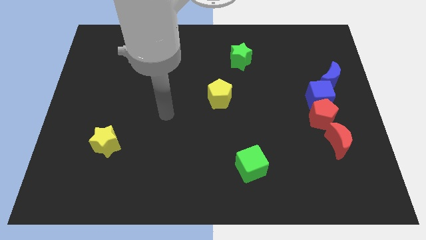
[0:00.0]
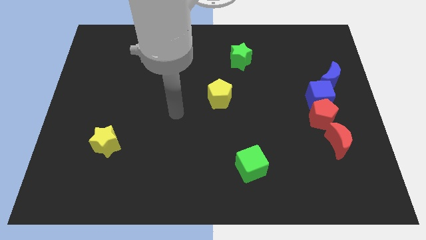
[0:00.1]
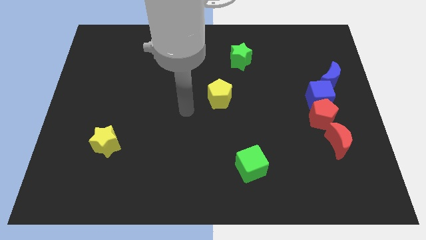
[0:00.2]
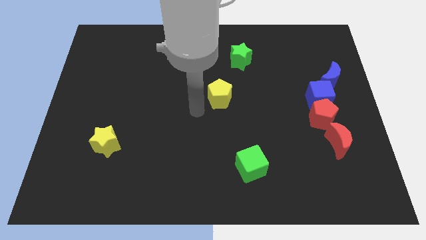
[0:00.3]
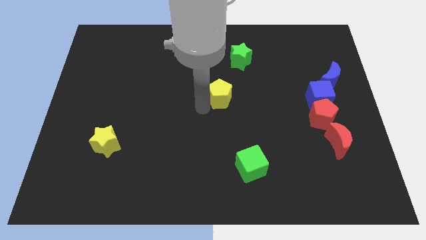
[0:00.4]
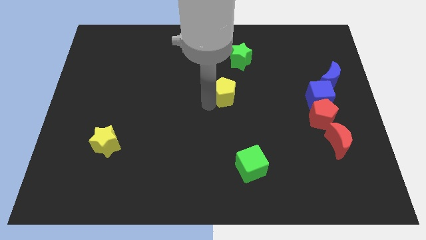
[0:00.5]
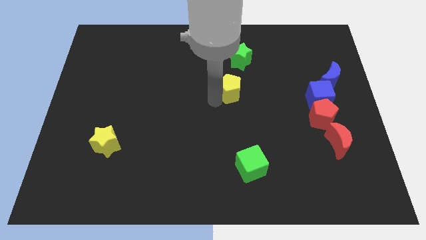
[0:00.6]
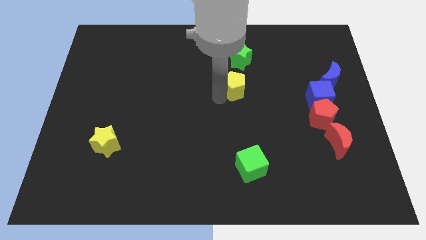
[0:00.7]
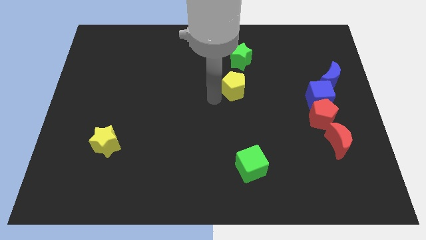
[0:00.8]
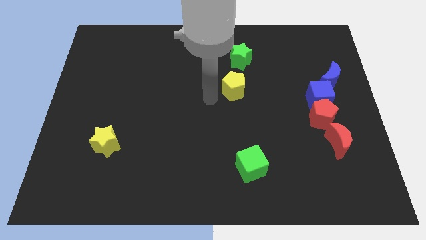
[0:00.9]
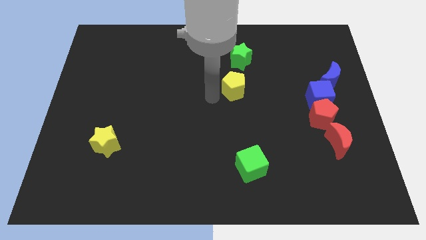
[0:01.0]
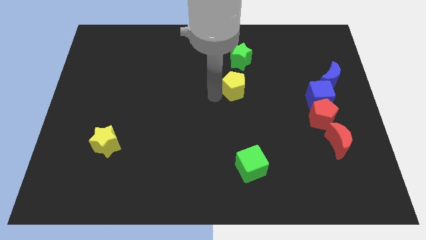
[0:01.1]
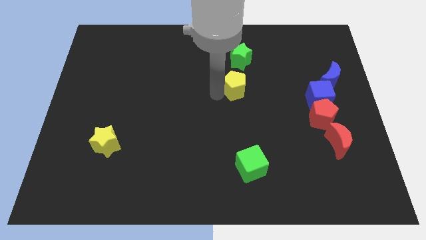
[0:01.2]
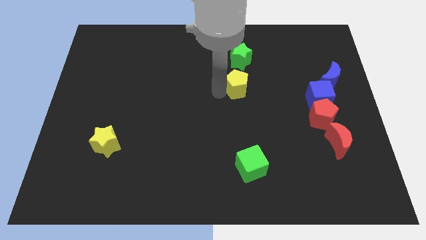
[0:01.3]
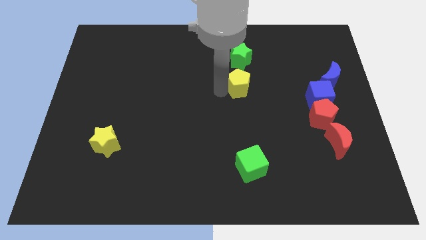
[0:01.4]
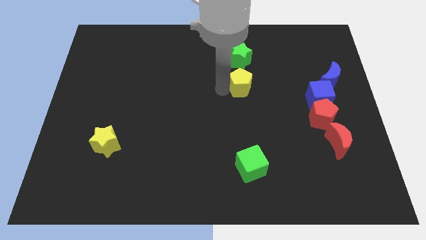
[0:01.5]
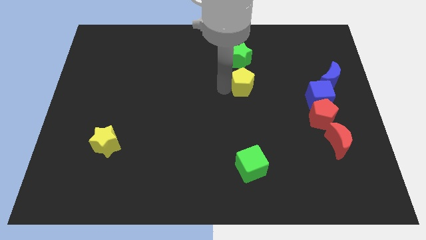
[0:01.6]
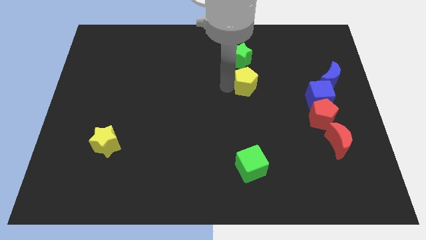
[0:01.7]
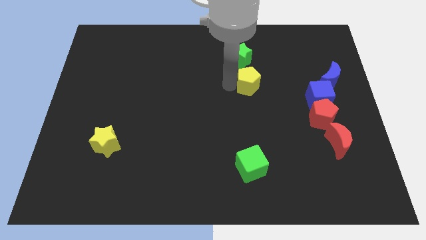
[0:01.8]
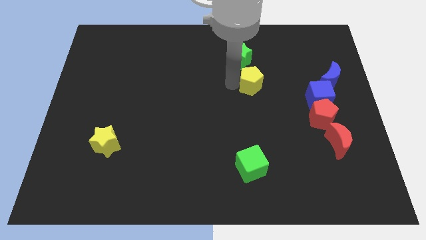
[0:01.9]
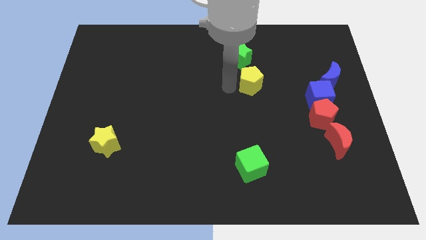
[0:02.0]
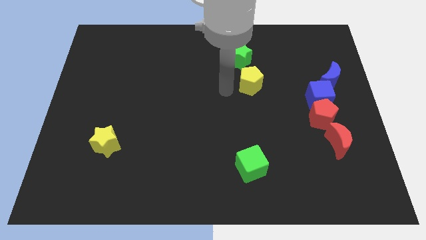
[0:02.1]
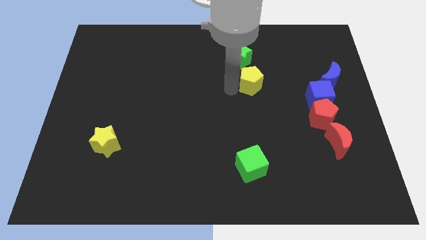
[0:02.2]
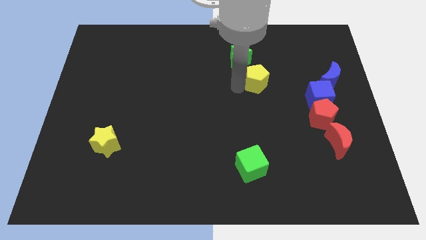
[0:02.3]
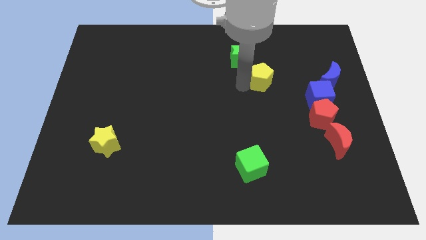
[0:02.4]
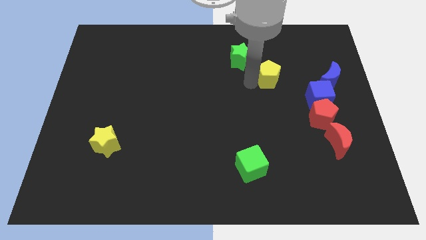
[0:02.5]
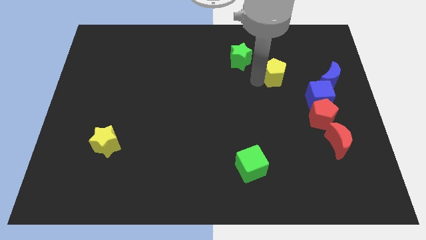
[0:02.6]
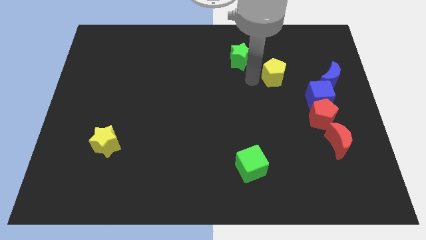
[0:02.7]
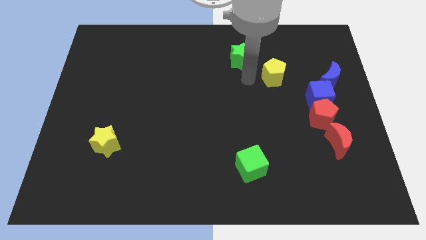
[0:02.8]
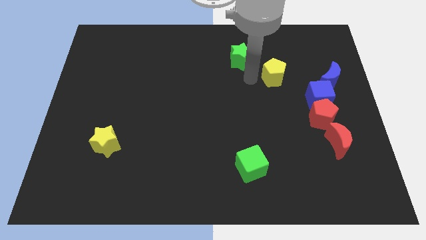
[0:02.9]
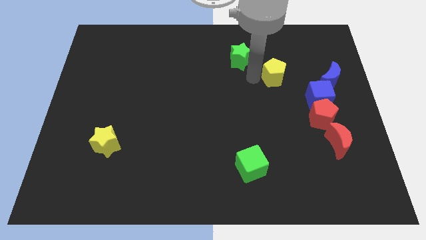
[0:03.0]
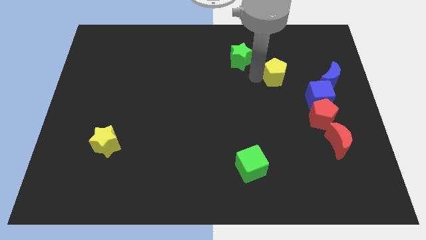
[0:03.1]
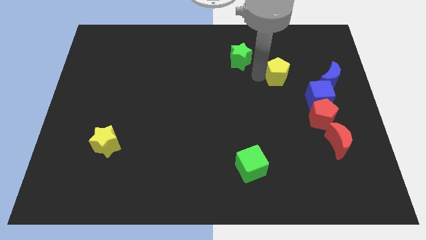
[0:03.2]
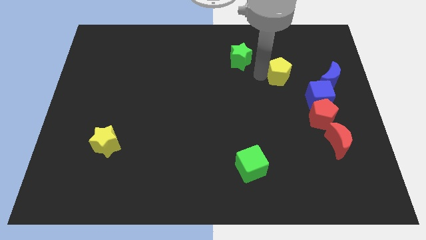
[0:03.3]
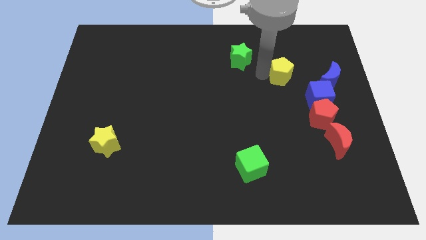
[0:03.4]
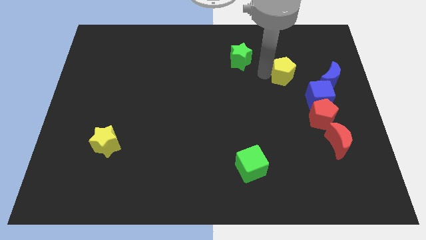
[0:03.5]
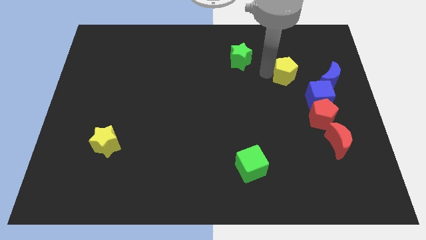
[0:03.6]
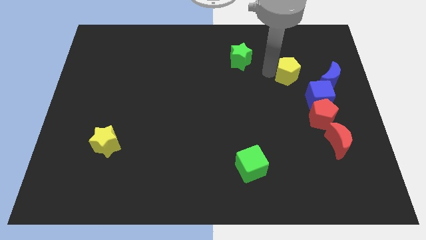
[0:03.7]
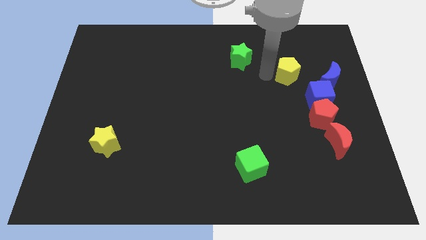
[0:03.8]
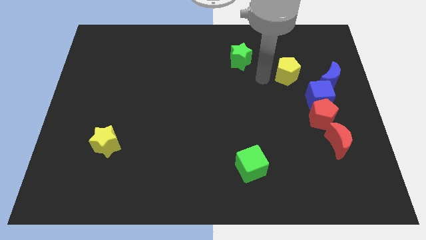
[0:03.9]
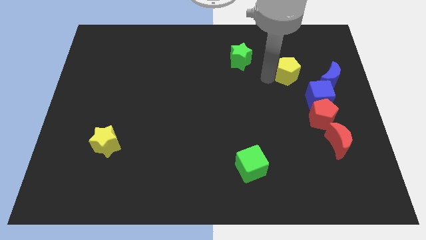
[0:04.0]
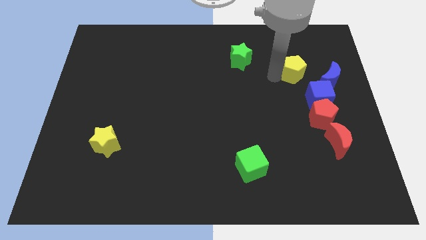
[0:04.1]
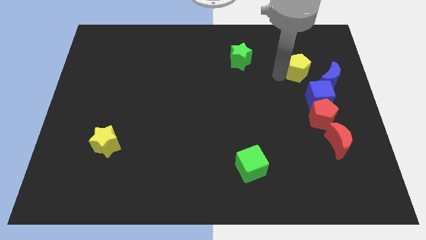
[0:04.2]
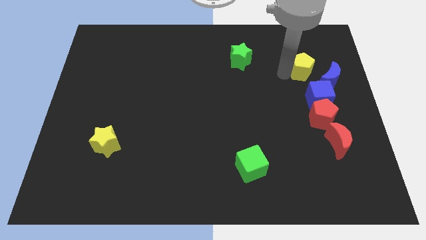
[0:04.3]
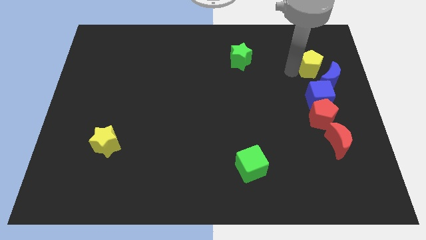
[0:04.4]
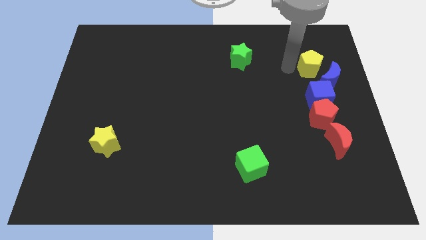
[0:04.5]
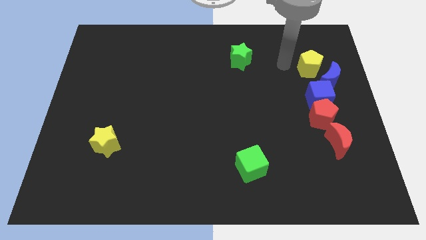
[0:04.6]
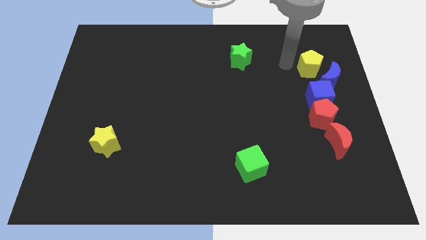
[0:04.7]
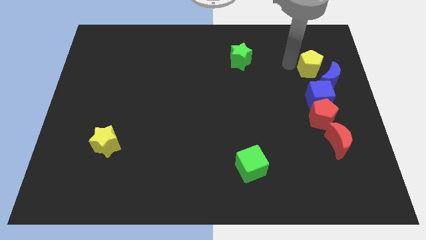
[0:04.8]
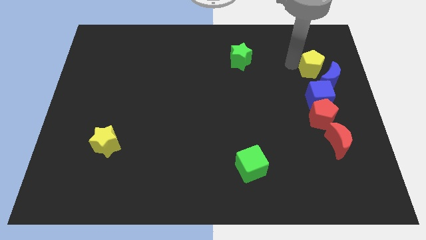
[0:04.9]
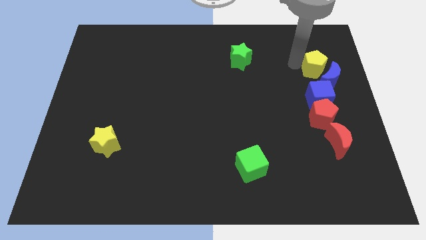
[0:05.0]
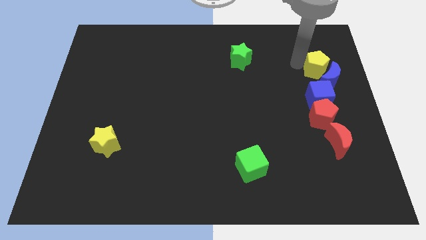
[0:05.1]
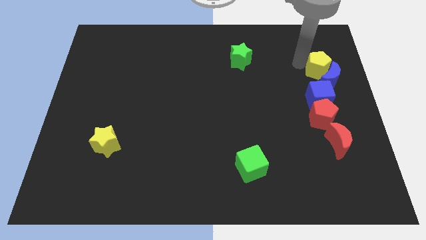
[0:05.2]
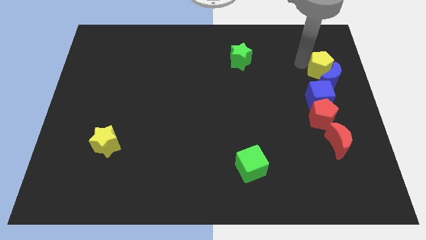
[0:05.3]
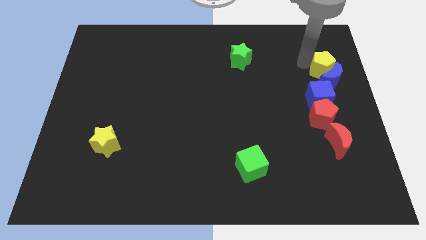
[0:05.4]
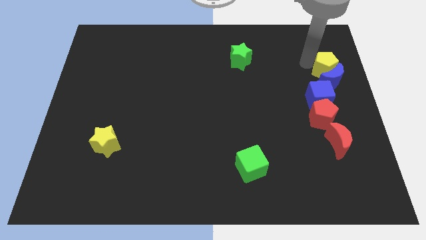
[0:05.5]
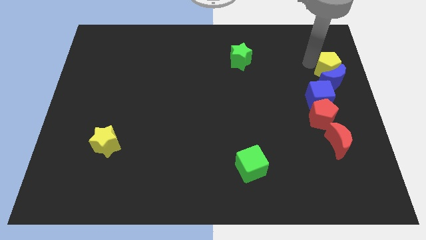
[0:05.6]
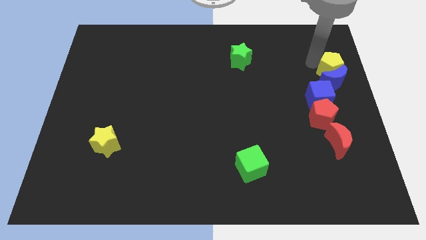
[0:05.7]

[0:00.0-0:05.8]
move the yellow pentagon to the right side
